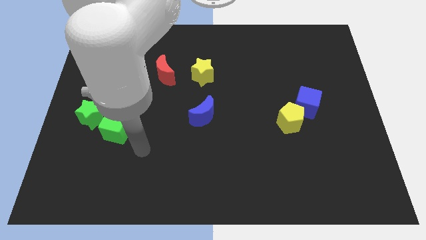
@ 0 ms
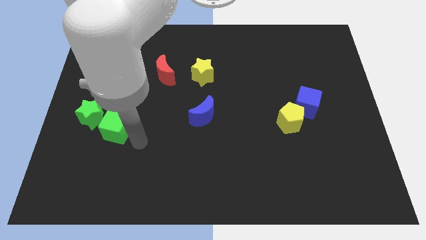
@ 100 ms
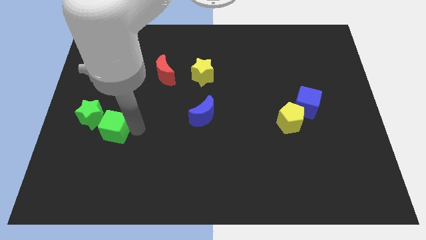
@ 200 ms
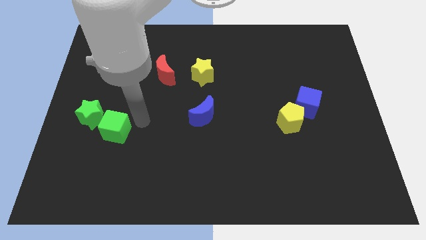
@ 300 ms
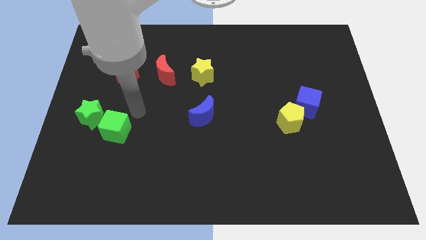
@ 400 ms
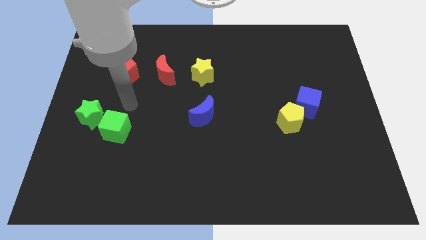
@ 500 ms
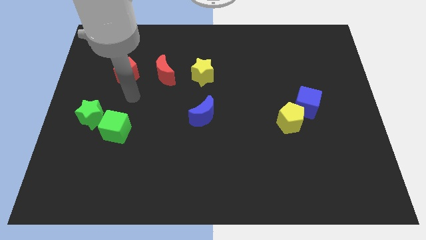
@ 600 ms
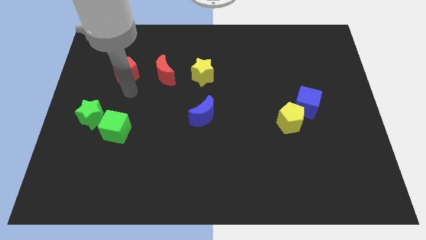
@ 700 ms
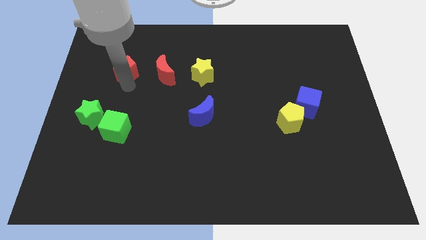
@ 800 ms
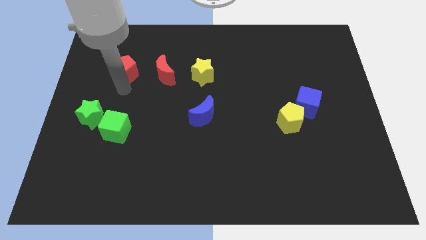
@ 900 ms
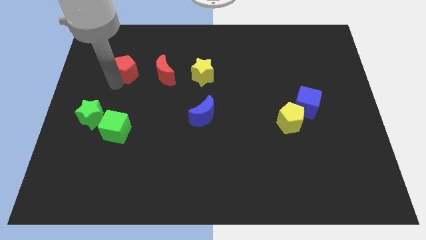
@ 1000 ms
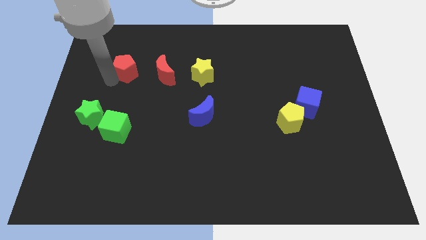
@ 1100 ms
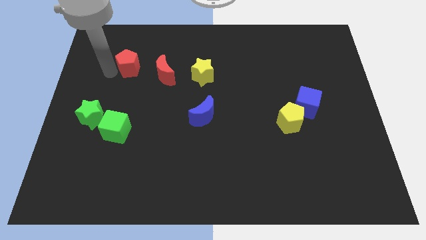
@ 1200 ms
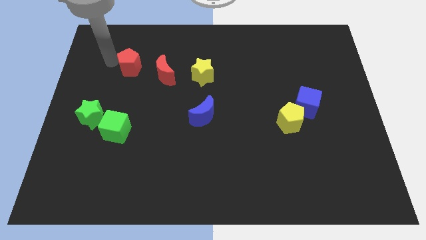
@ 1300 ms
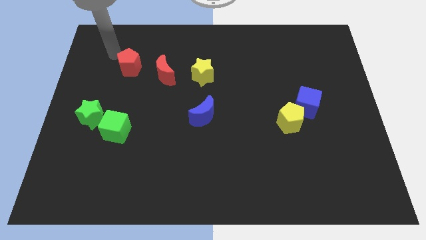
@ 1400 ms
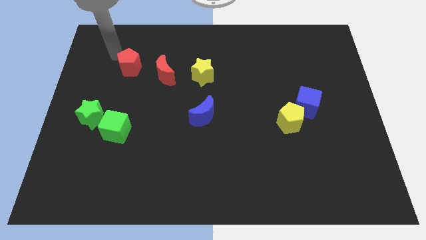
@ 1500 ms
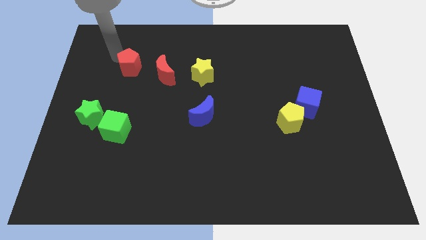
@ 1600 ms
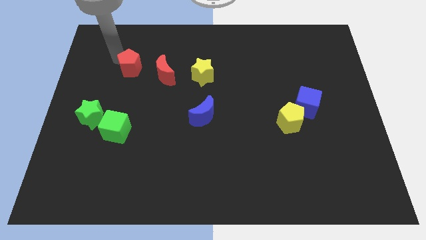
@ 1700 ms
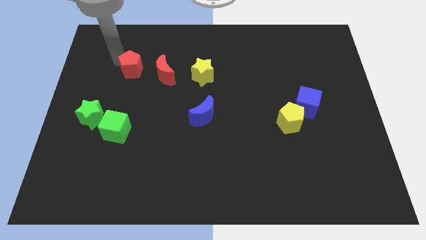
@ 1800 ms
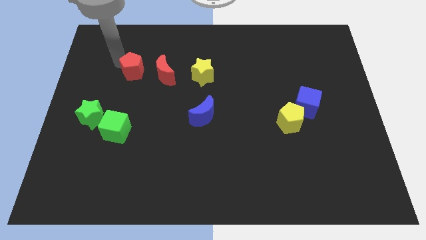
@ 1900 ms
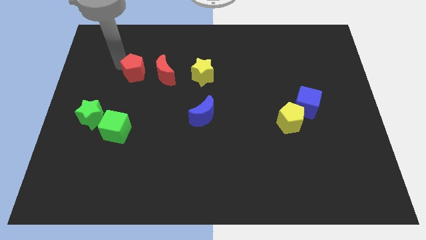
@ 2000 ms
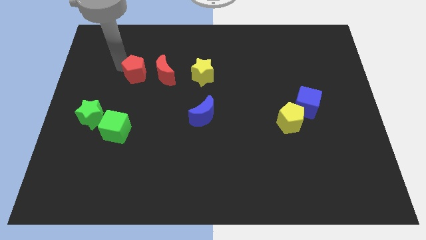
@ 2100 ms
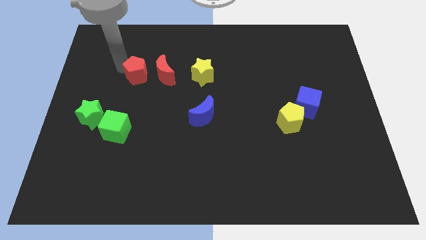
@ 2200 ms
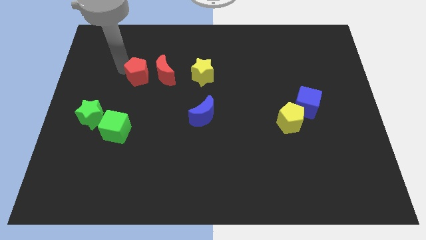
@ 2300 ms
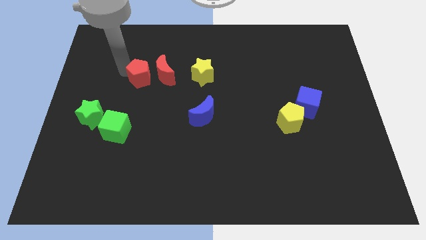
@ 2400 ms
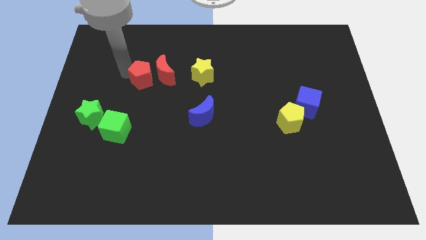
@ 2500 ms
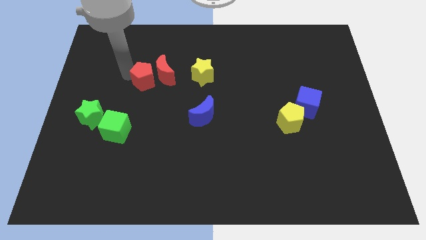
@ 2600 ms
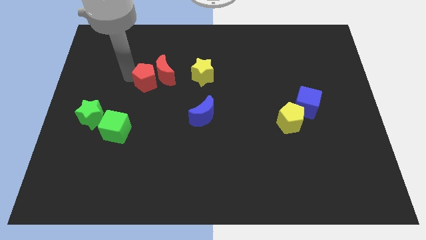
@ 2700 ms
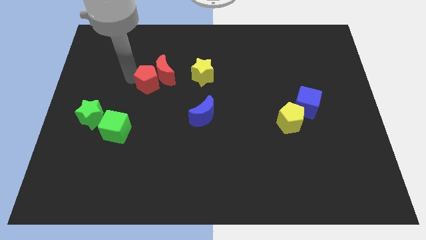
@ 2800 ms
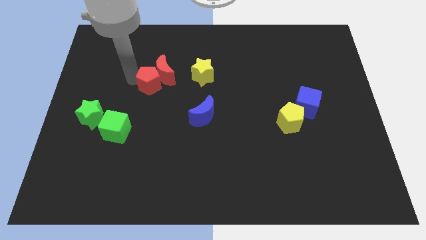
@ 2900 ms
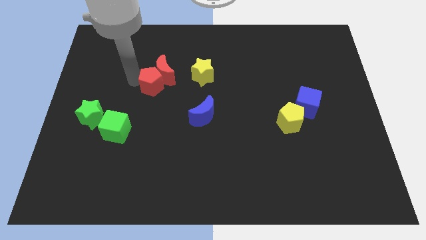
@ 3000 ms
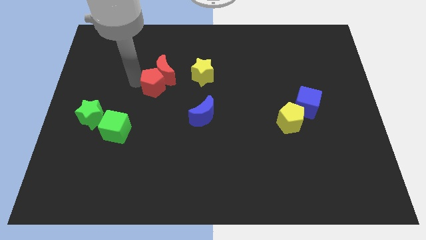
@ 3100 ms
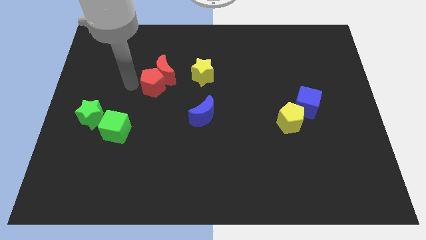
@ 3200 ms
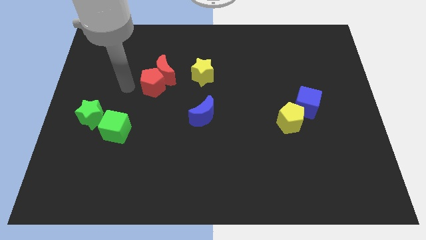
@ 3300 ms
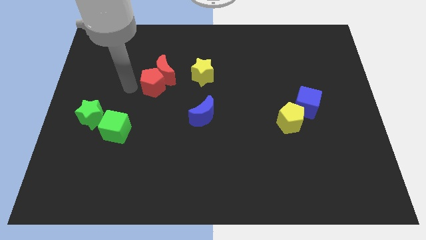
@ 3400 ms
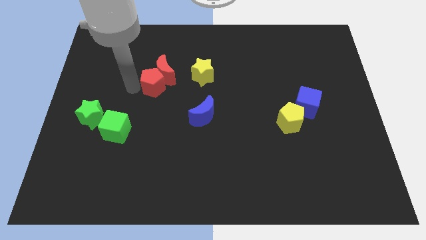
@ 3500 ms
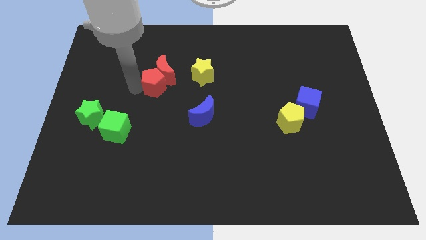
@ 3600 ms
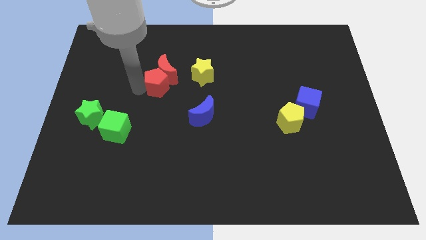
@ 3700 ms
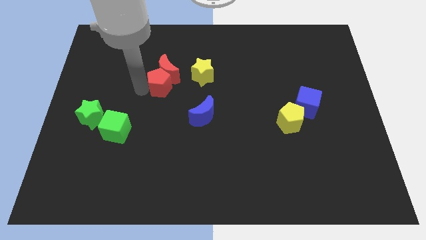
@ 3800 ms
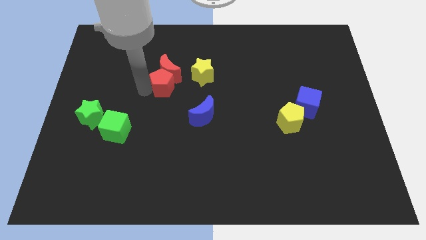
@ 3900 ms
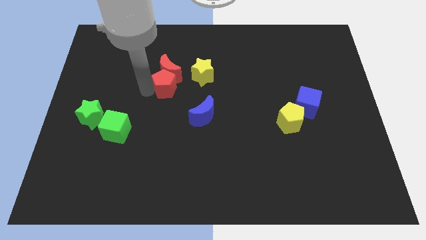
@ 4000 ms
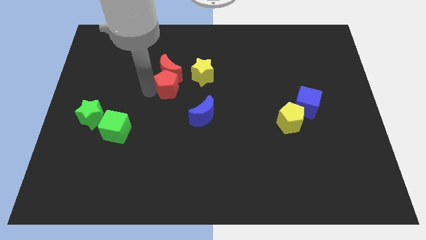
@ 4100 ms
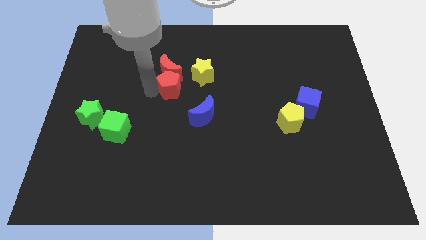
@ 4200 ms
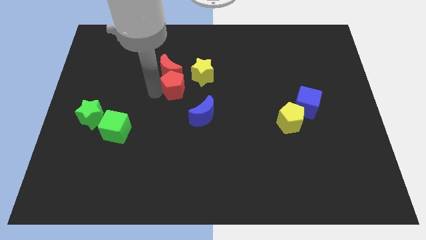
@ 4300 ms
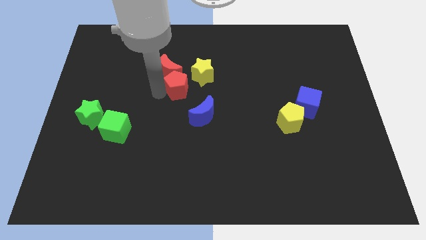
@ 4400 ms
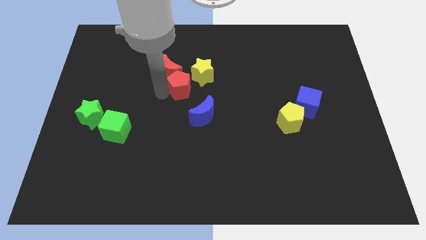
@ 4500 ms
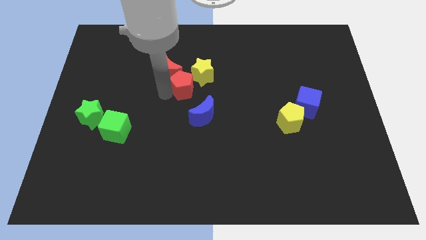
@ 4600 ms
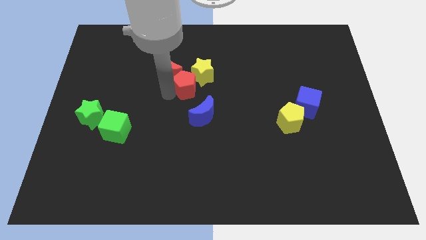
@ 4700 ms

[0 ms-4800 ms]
put the red pentagon to the yellow star

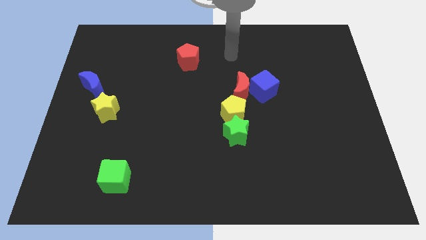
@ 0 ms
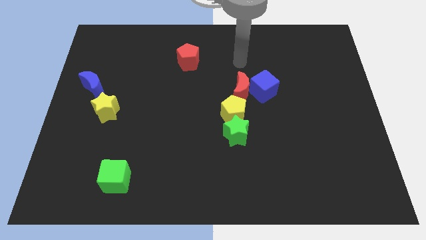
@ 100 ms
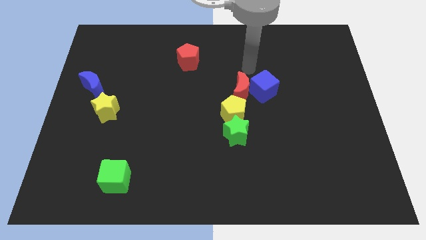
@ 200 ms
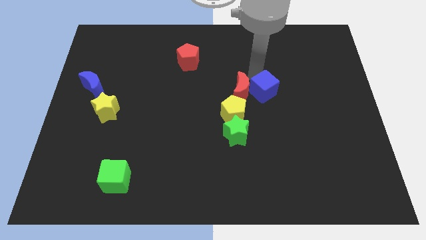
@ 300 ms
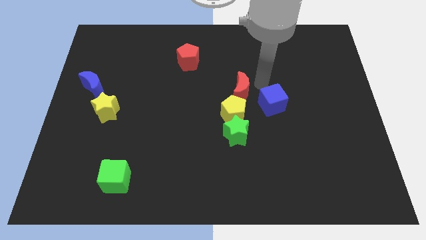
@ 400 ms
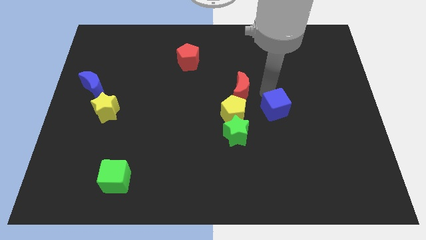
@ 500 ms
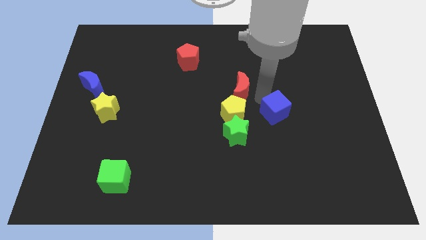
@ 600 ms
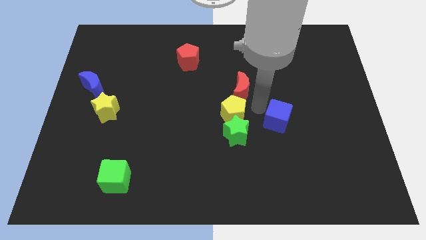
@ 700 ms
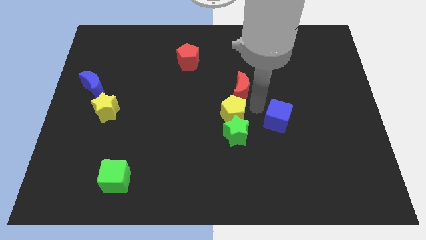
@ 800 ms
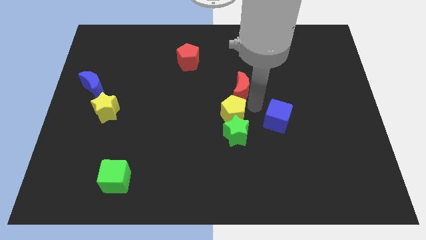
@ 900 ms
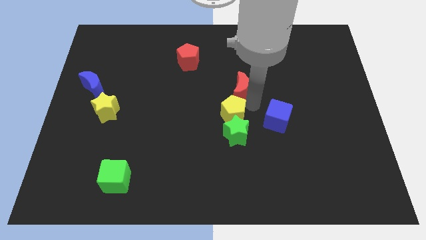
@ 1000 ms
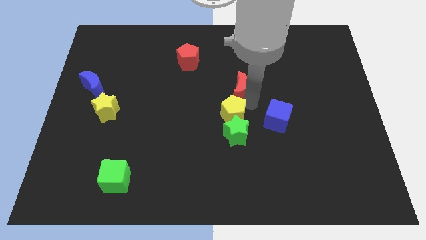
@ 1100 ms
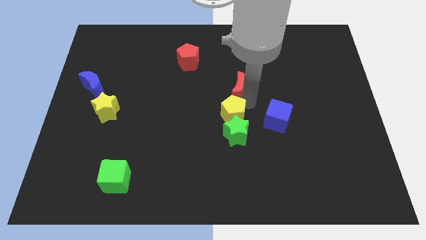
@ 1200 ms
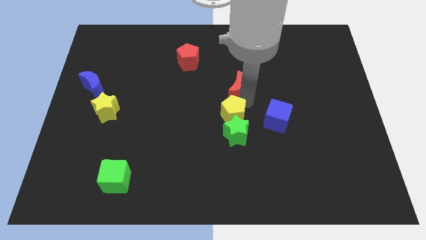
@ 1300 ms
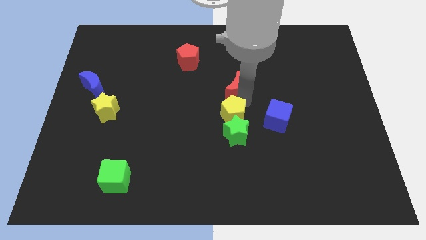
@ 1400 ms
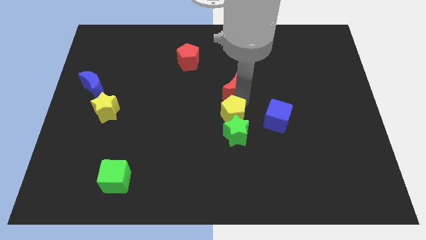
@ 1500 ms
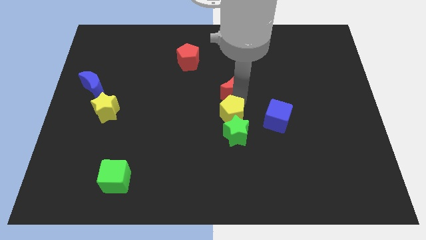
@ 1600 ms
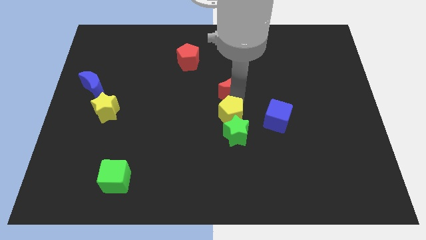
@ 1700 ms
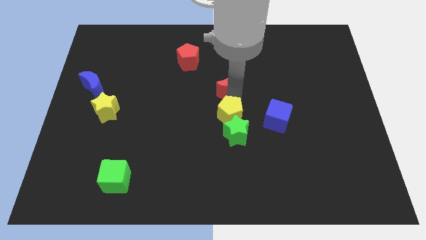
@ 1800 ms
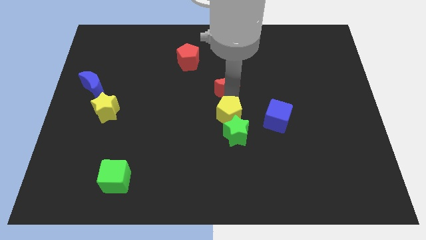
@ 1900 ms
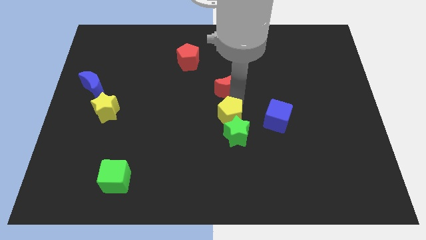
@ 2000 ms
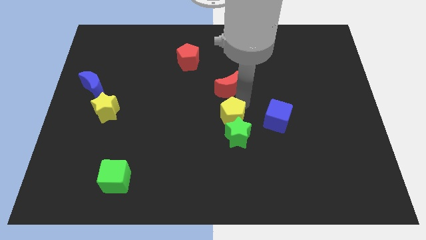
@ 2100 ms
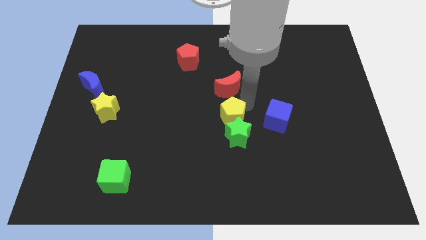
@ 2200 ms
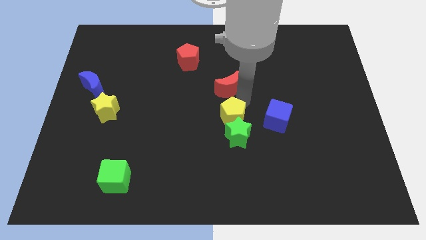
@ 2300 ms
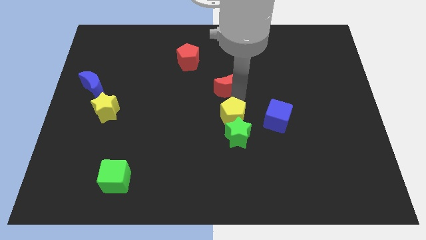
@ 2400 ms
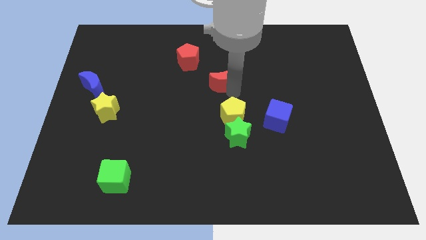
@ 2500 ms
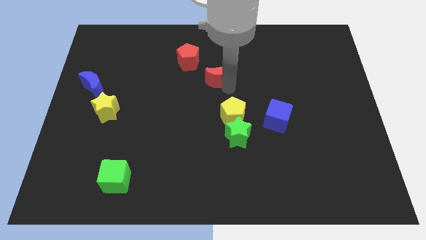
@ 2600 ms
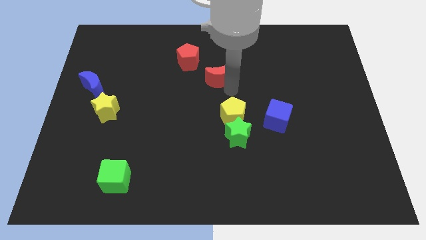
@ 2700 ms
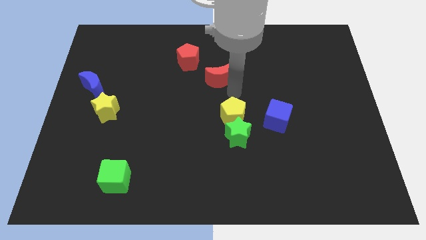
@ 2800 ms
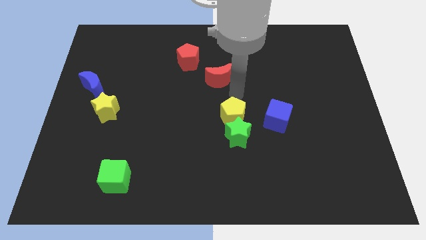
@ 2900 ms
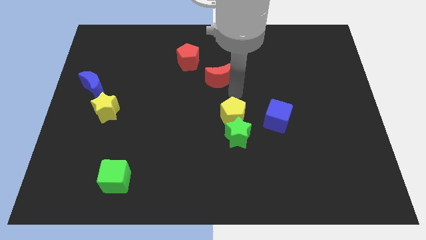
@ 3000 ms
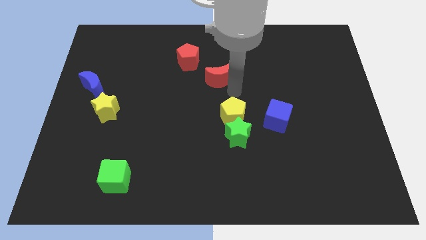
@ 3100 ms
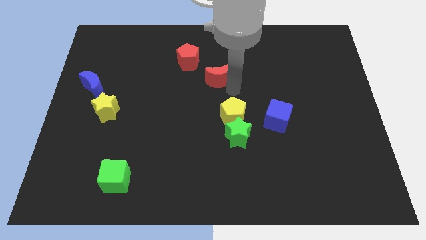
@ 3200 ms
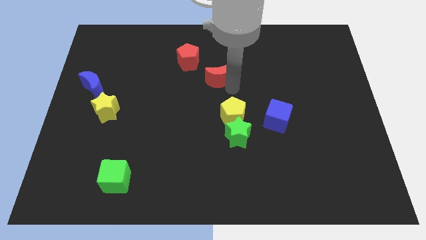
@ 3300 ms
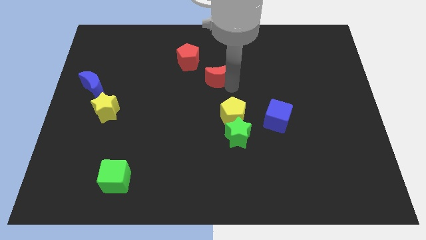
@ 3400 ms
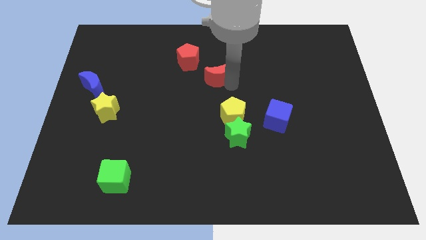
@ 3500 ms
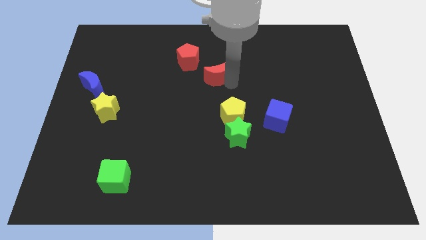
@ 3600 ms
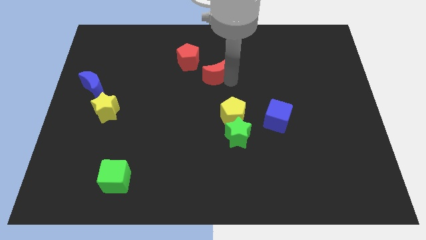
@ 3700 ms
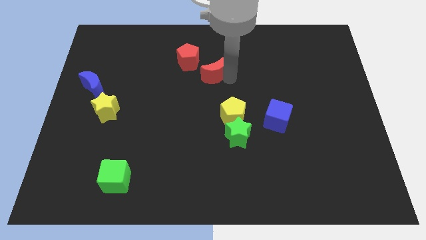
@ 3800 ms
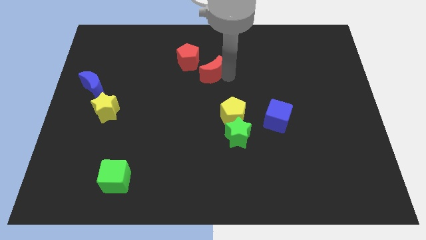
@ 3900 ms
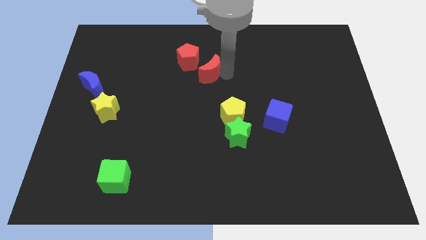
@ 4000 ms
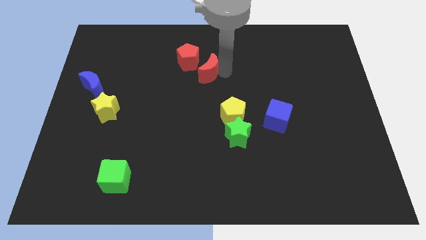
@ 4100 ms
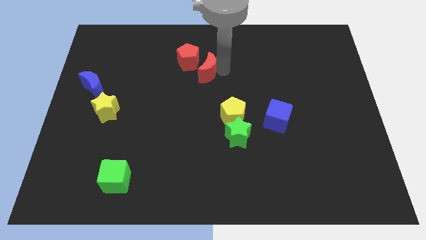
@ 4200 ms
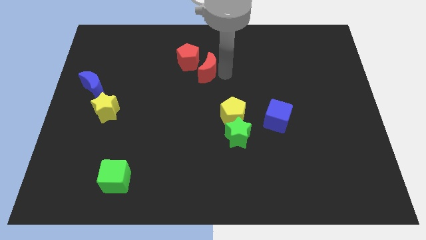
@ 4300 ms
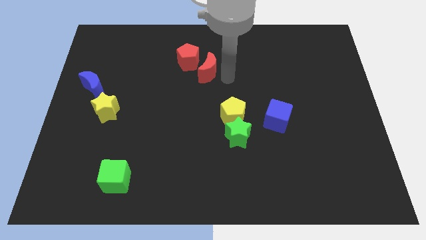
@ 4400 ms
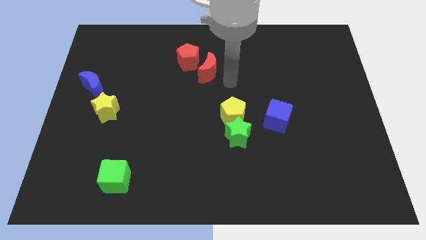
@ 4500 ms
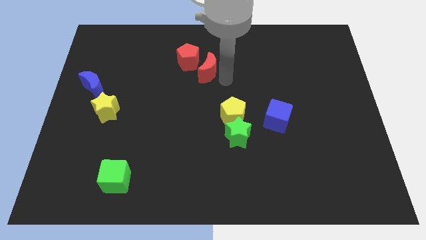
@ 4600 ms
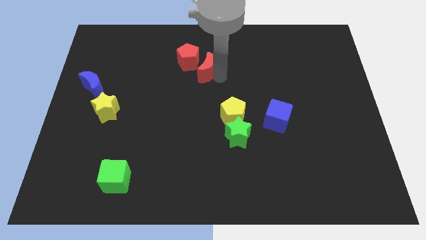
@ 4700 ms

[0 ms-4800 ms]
move the red moon close to the red pentagon
